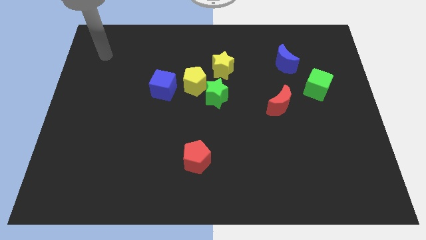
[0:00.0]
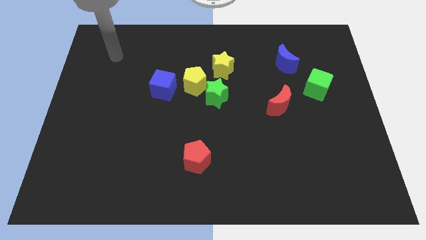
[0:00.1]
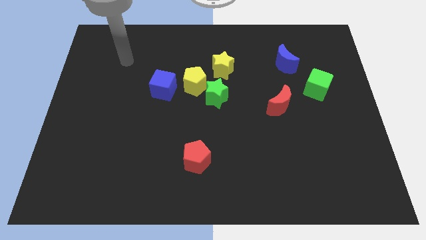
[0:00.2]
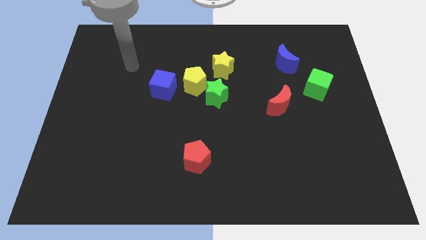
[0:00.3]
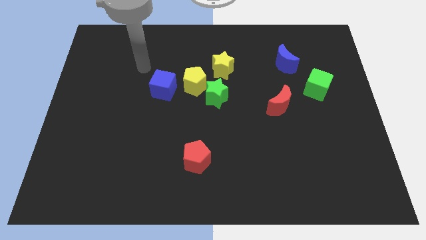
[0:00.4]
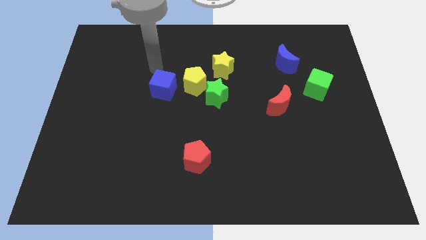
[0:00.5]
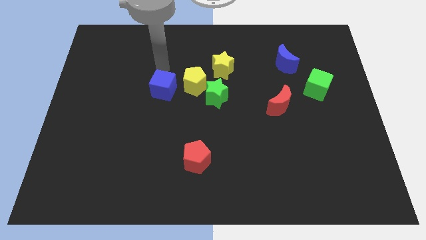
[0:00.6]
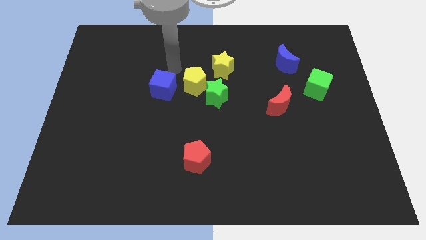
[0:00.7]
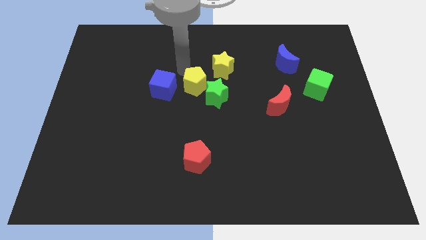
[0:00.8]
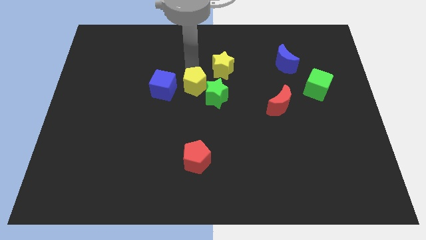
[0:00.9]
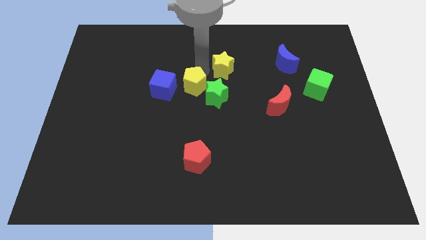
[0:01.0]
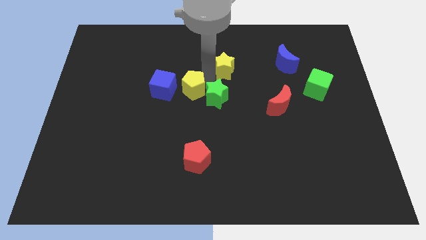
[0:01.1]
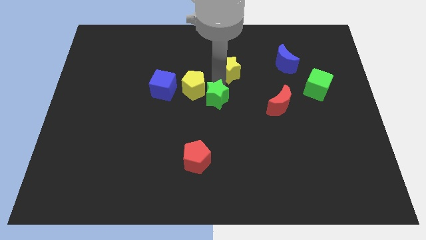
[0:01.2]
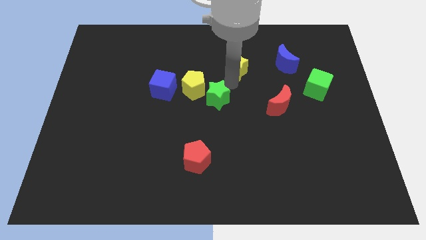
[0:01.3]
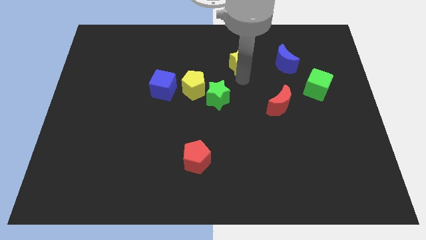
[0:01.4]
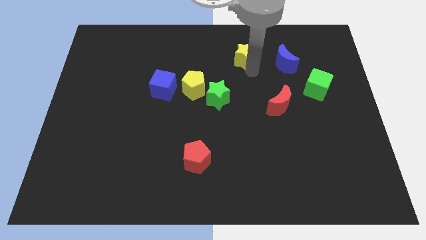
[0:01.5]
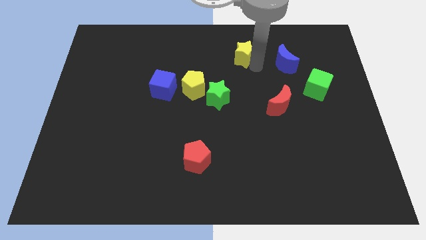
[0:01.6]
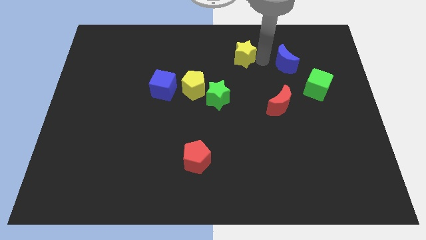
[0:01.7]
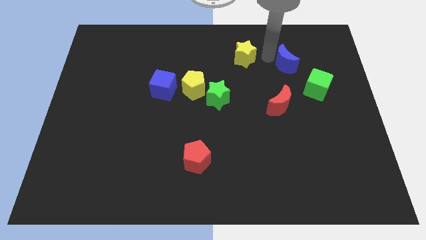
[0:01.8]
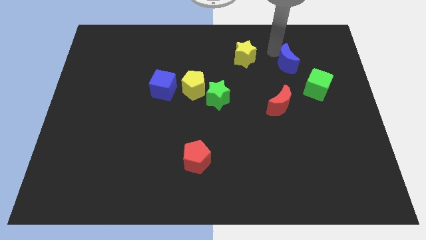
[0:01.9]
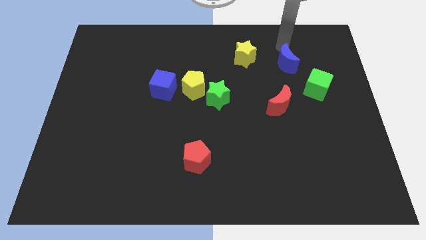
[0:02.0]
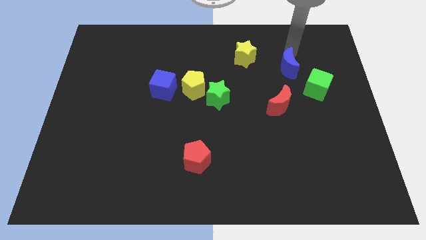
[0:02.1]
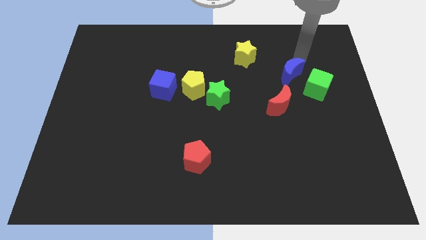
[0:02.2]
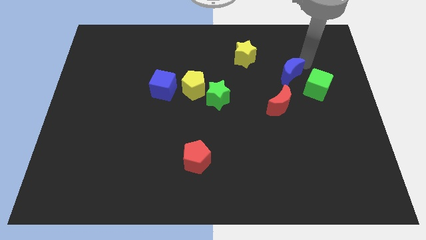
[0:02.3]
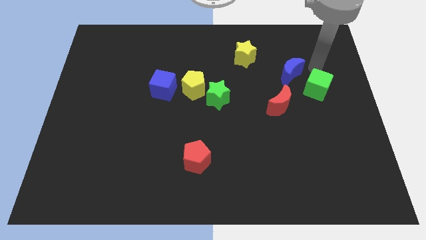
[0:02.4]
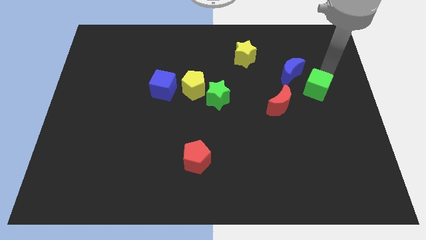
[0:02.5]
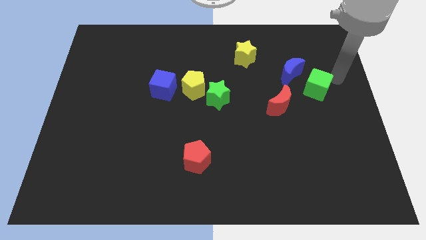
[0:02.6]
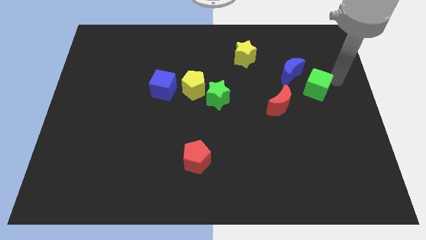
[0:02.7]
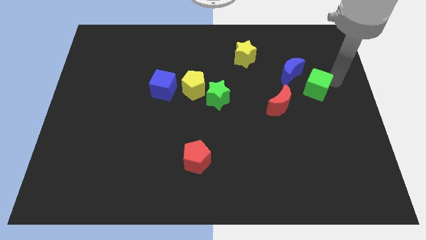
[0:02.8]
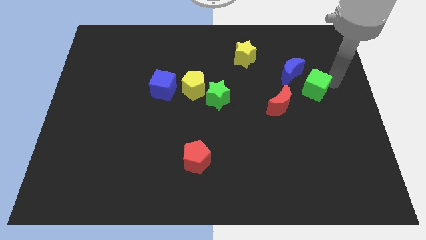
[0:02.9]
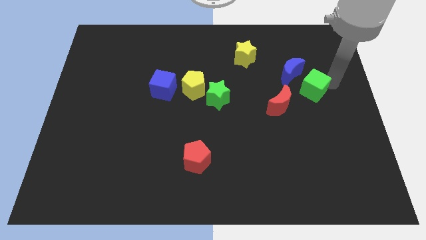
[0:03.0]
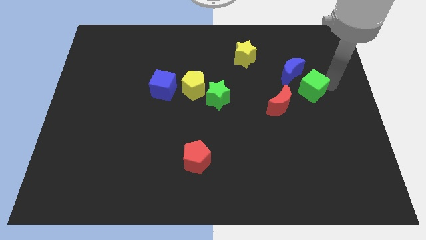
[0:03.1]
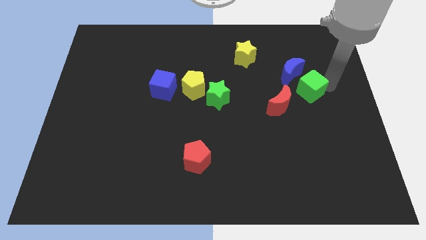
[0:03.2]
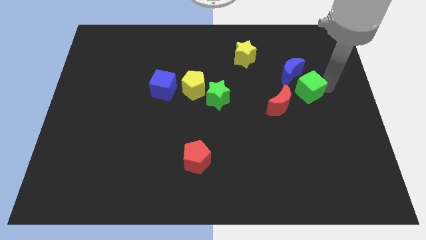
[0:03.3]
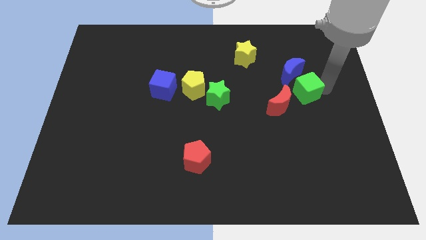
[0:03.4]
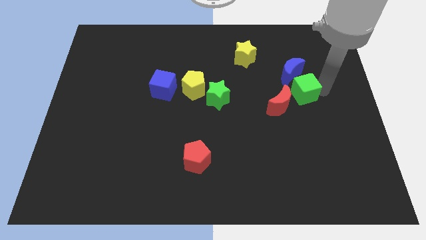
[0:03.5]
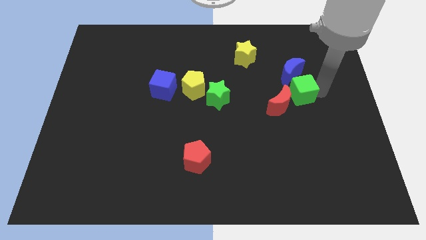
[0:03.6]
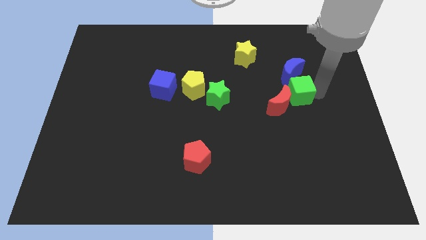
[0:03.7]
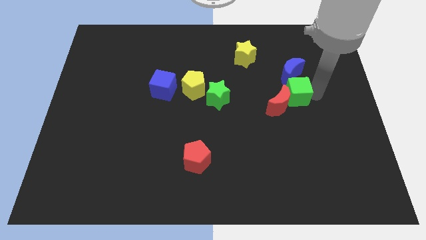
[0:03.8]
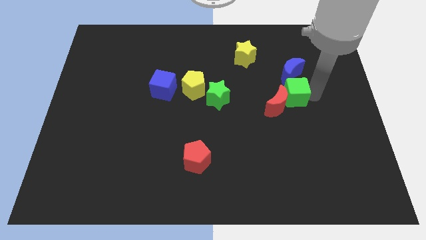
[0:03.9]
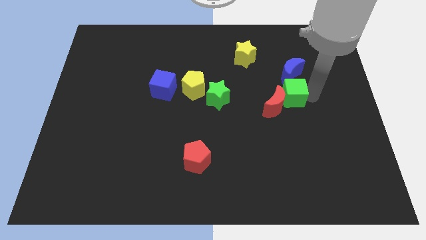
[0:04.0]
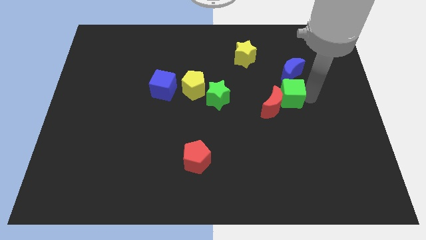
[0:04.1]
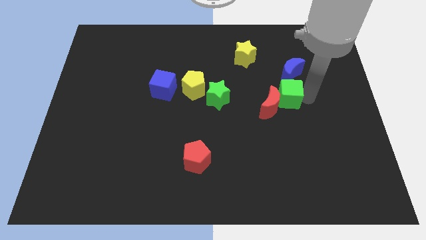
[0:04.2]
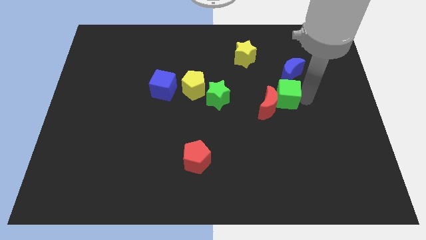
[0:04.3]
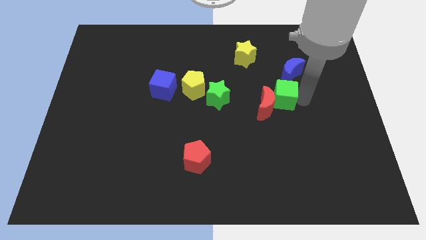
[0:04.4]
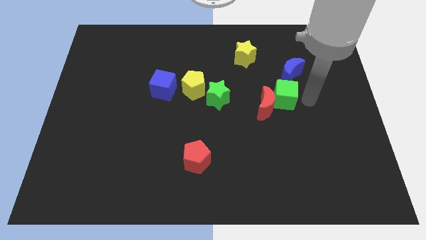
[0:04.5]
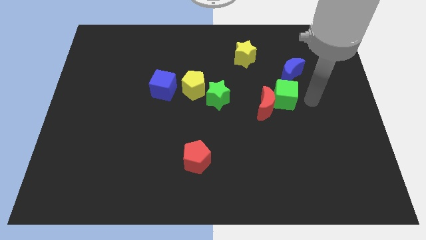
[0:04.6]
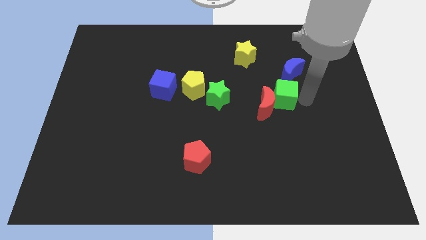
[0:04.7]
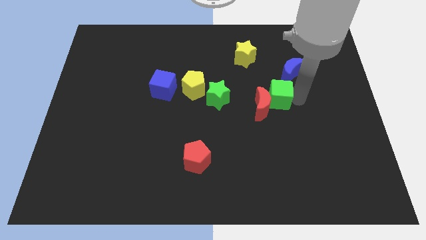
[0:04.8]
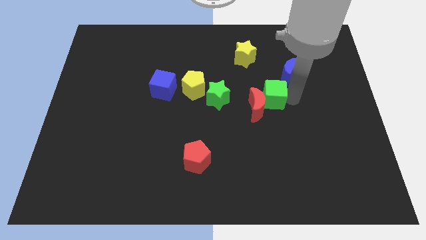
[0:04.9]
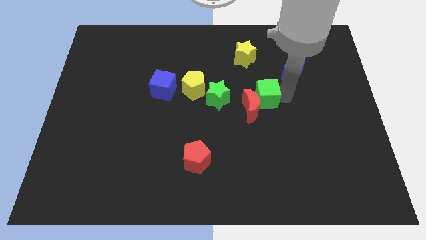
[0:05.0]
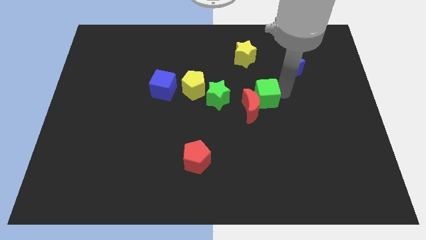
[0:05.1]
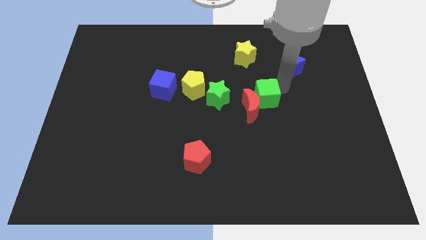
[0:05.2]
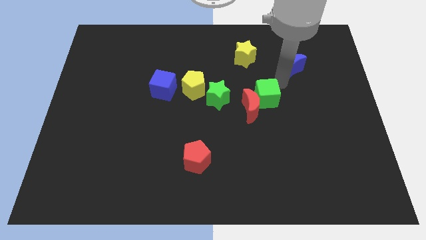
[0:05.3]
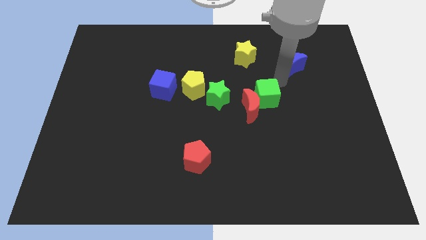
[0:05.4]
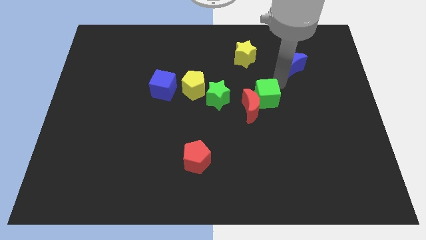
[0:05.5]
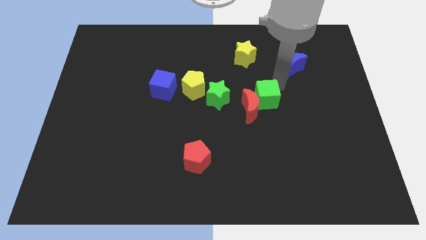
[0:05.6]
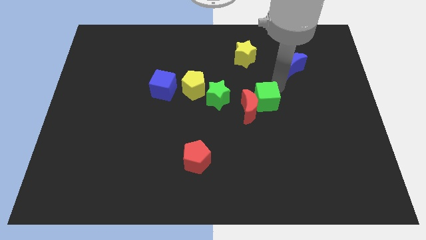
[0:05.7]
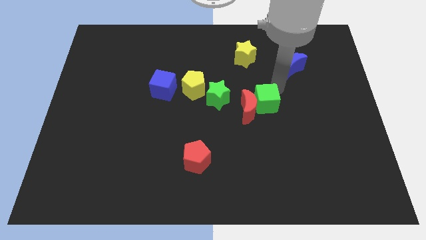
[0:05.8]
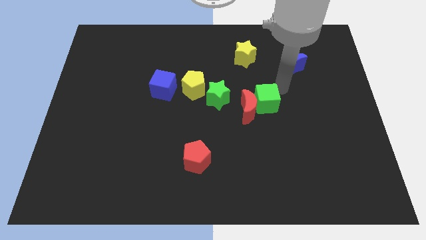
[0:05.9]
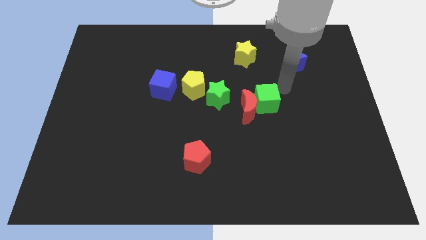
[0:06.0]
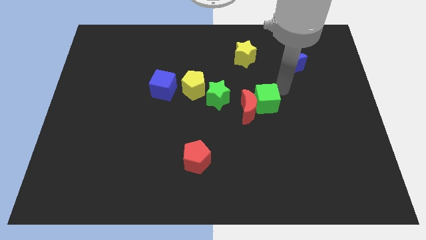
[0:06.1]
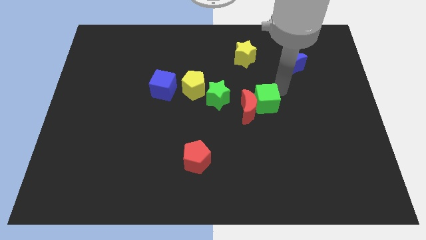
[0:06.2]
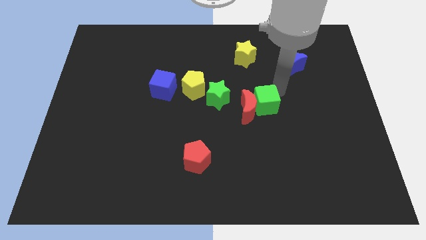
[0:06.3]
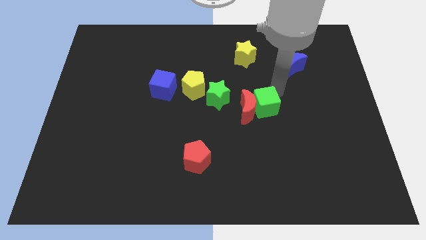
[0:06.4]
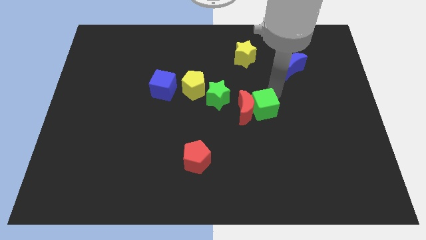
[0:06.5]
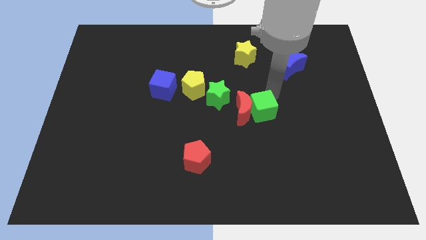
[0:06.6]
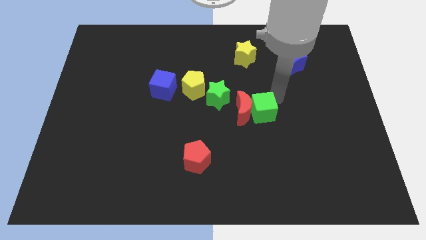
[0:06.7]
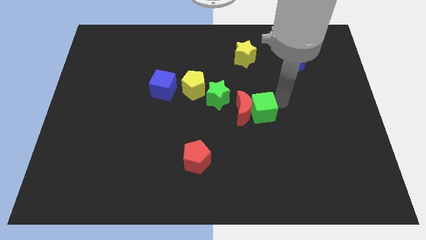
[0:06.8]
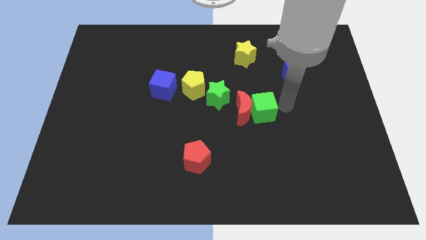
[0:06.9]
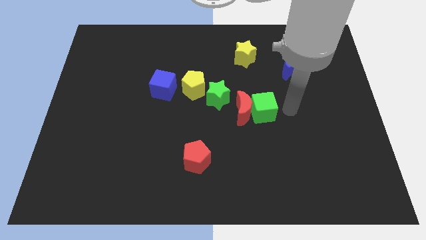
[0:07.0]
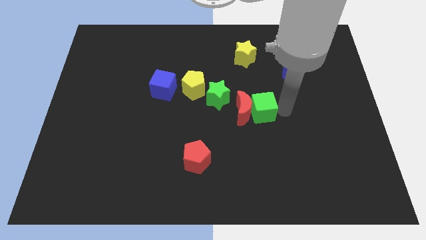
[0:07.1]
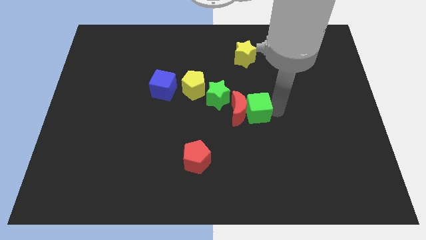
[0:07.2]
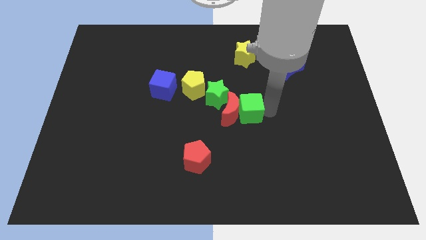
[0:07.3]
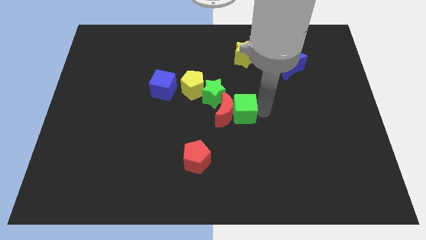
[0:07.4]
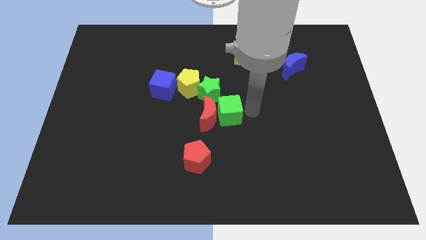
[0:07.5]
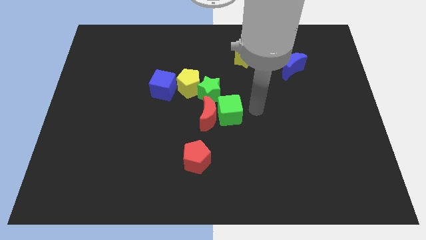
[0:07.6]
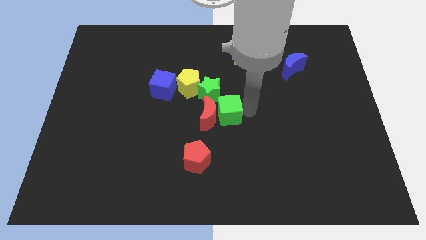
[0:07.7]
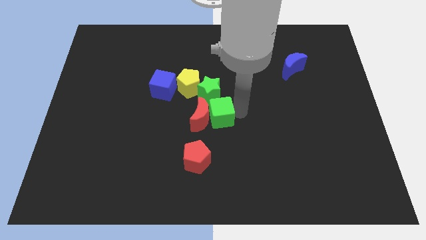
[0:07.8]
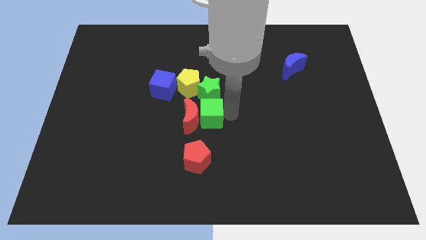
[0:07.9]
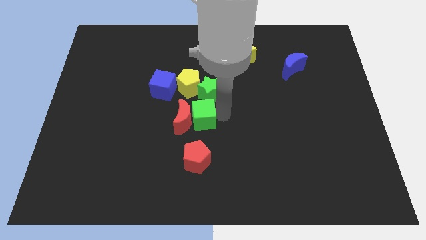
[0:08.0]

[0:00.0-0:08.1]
move the green cube to the bottom side of the yellow pentagon

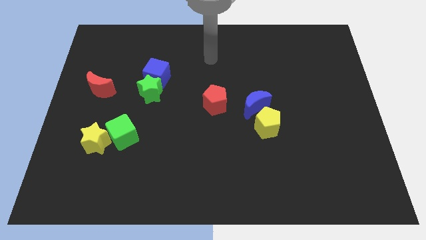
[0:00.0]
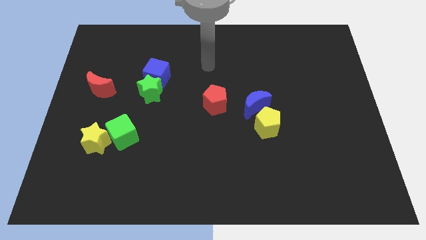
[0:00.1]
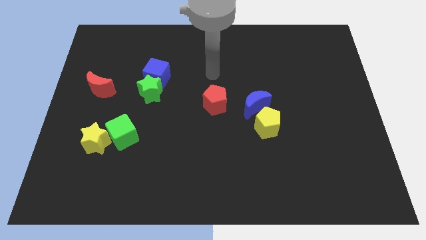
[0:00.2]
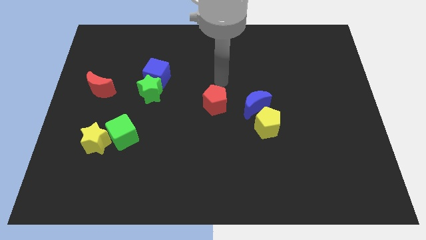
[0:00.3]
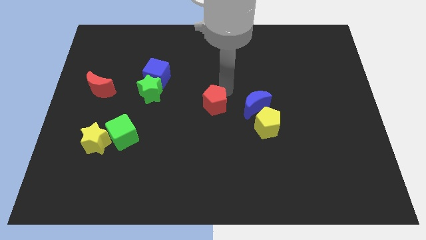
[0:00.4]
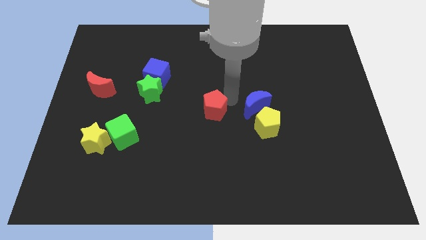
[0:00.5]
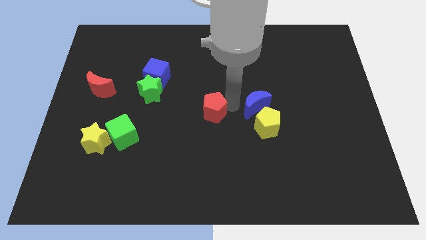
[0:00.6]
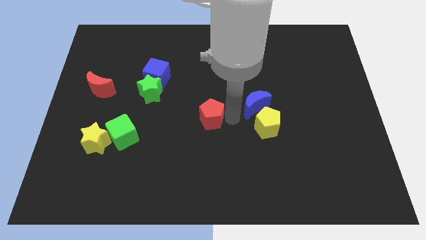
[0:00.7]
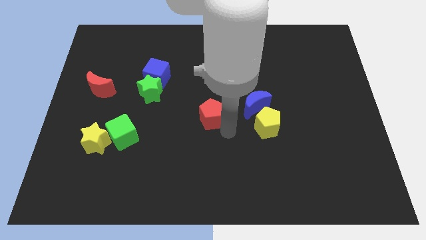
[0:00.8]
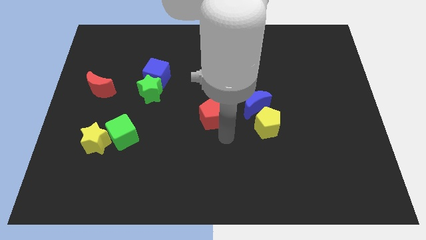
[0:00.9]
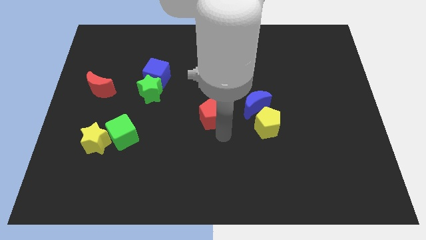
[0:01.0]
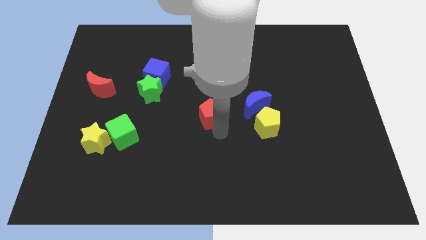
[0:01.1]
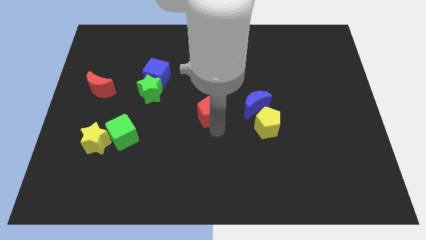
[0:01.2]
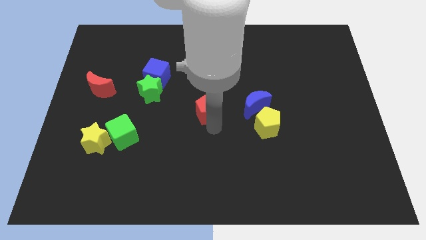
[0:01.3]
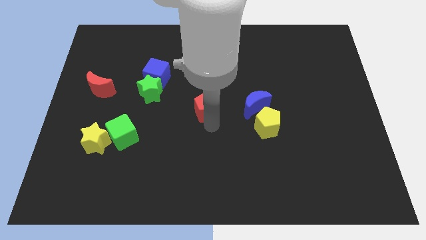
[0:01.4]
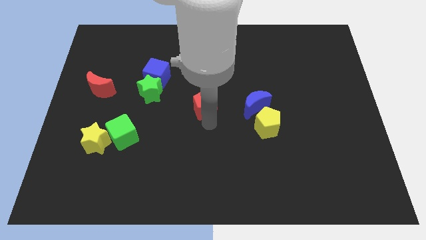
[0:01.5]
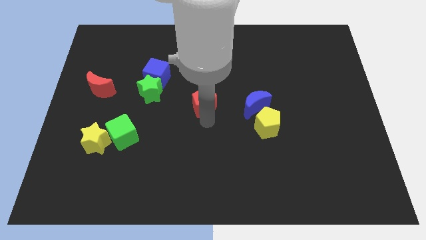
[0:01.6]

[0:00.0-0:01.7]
move the red pentagon to the right side of the green star
